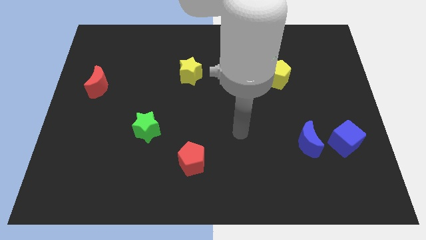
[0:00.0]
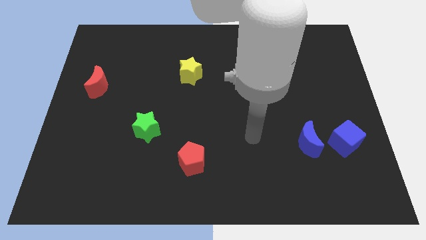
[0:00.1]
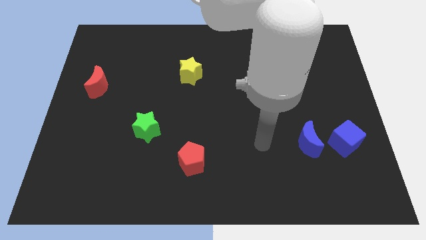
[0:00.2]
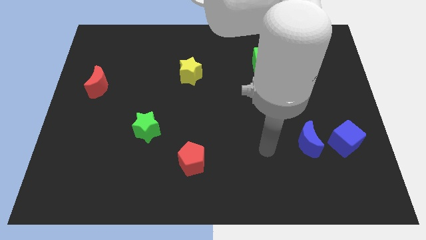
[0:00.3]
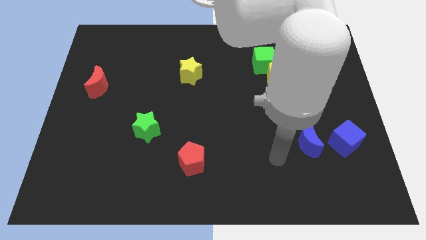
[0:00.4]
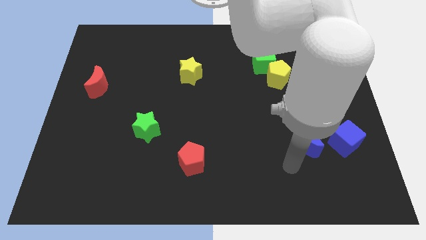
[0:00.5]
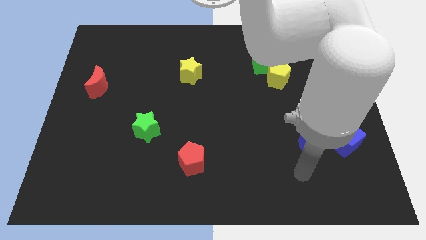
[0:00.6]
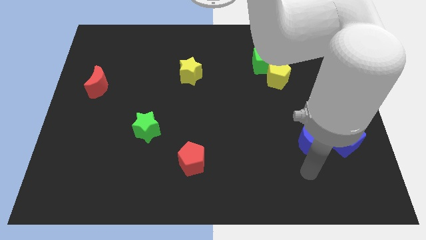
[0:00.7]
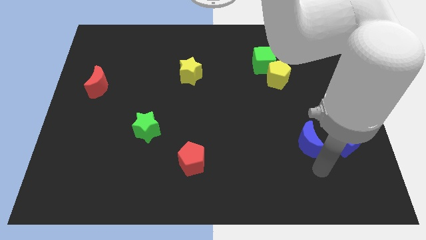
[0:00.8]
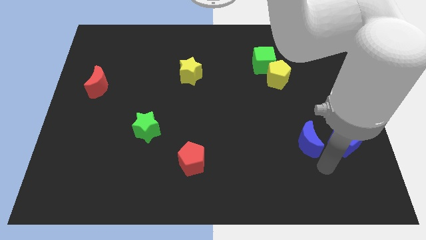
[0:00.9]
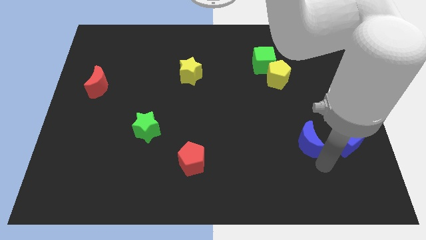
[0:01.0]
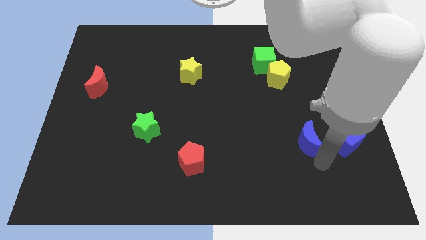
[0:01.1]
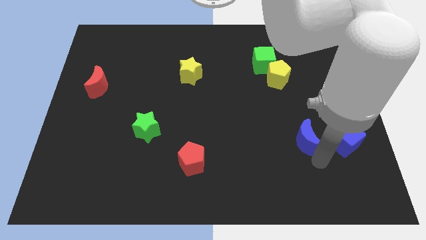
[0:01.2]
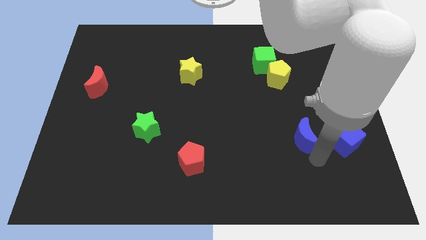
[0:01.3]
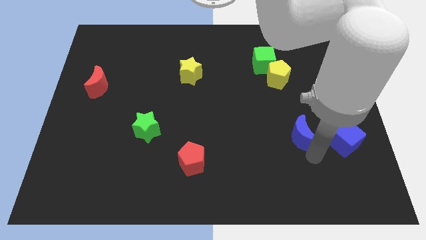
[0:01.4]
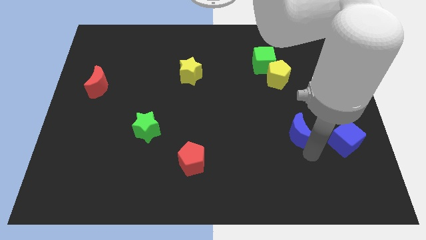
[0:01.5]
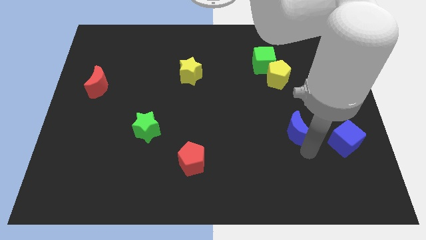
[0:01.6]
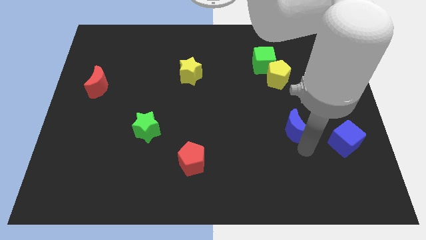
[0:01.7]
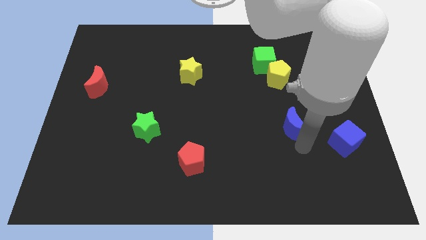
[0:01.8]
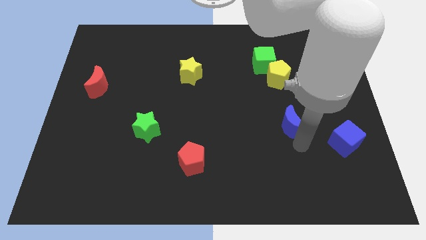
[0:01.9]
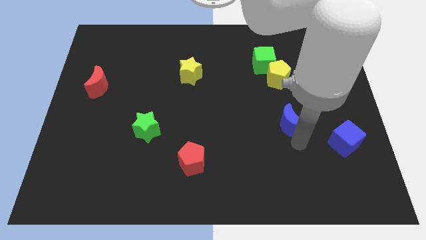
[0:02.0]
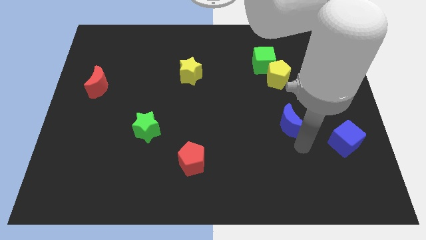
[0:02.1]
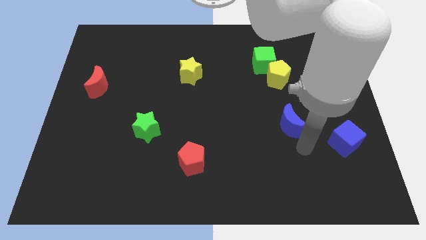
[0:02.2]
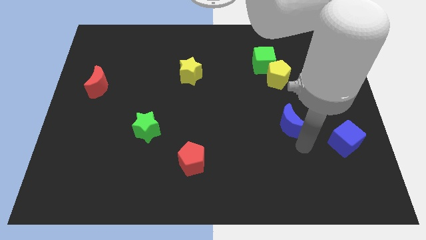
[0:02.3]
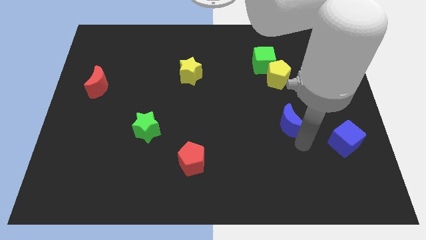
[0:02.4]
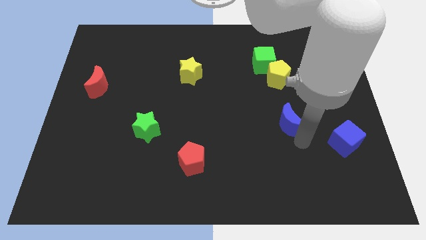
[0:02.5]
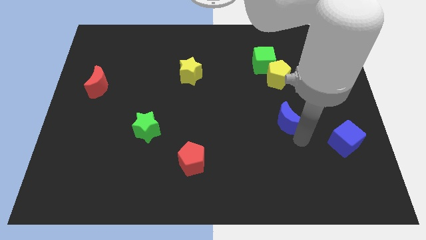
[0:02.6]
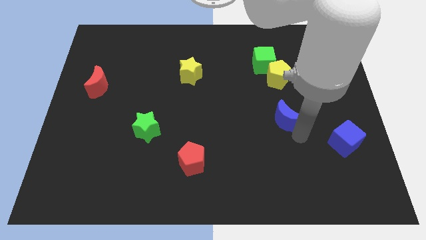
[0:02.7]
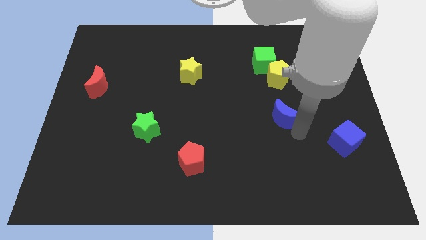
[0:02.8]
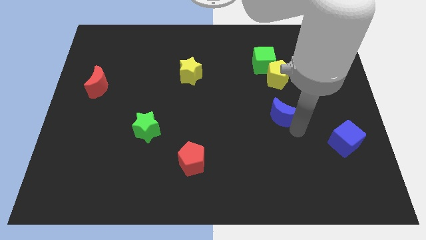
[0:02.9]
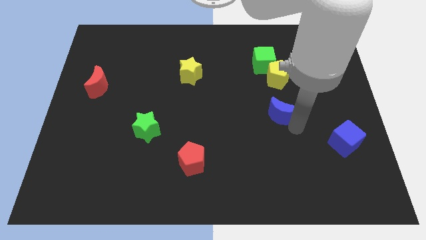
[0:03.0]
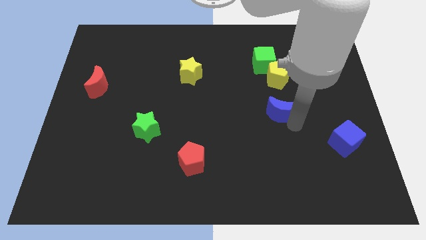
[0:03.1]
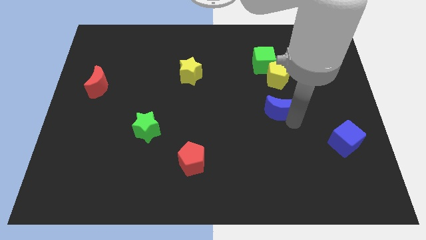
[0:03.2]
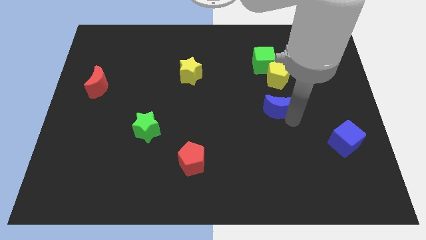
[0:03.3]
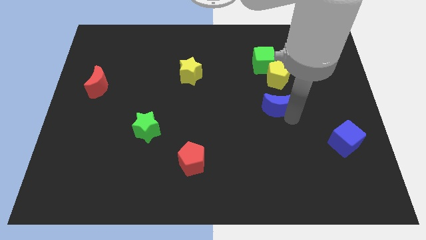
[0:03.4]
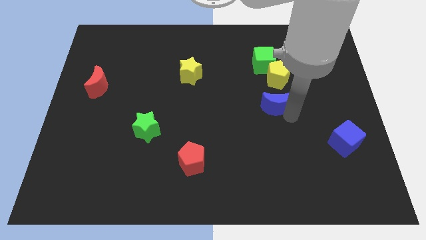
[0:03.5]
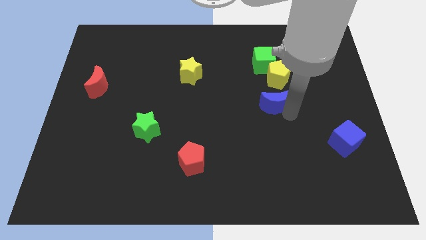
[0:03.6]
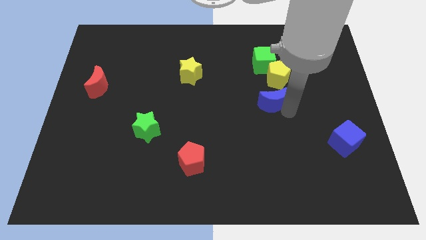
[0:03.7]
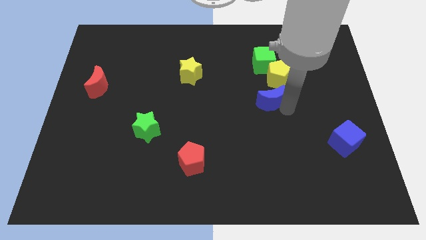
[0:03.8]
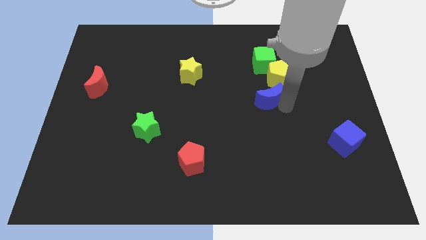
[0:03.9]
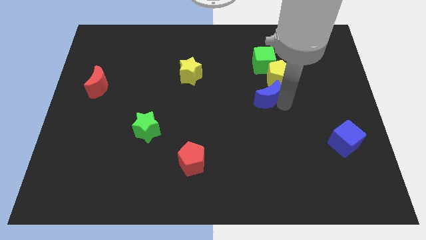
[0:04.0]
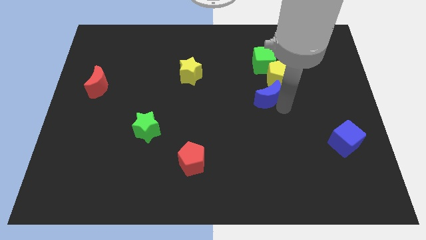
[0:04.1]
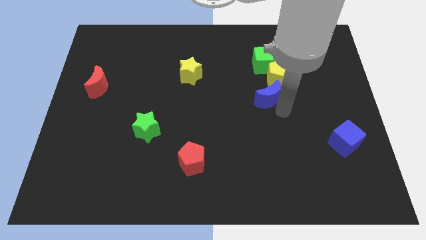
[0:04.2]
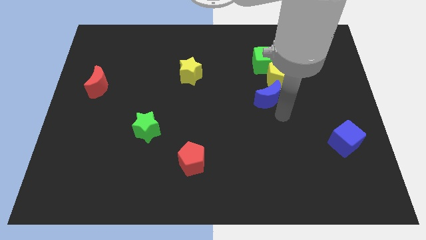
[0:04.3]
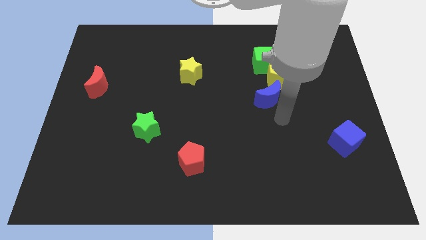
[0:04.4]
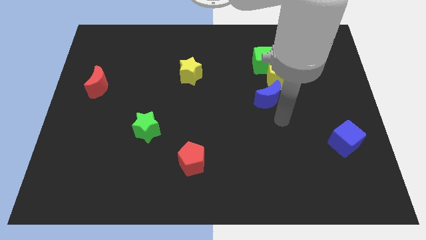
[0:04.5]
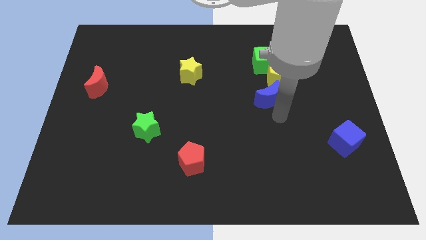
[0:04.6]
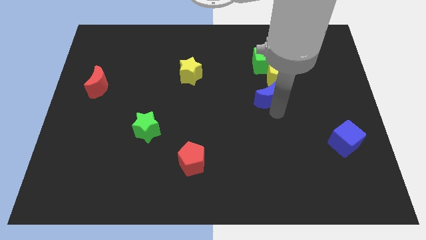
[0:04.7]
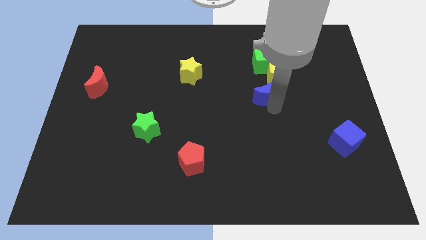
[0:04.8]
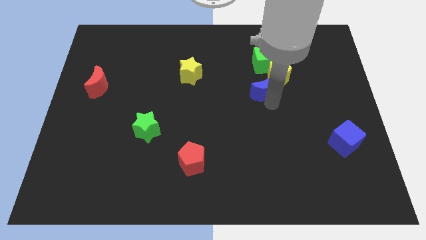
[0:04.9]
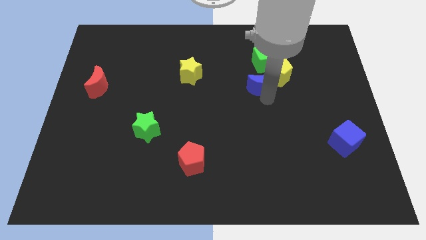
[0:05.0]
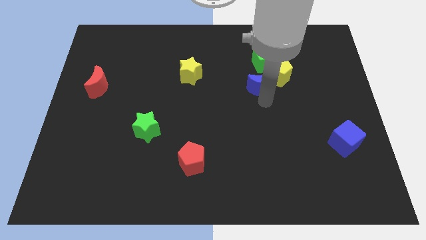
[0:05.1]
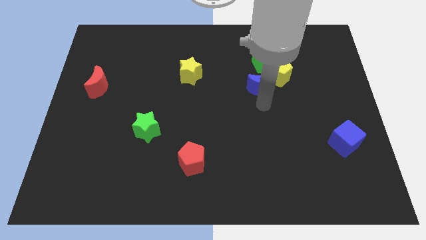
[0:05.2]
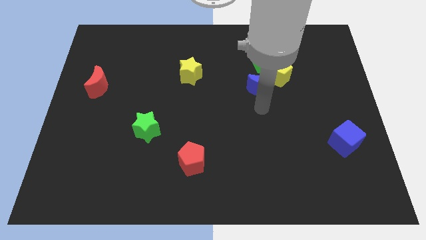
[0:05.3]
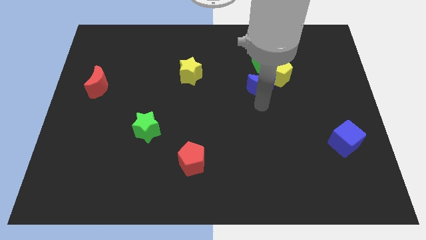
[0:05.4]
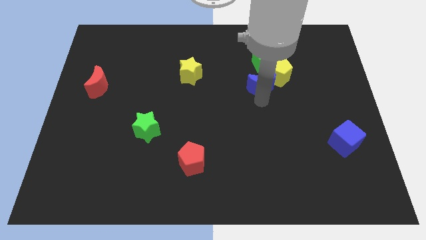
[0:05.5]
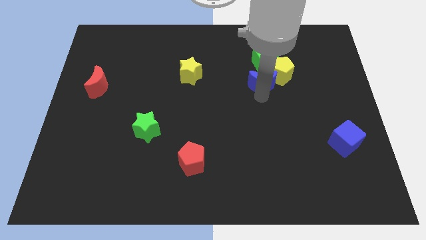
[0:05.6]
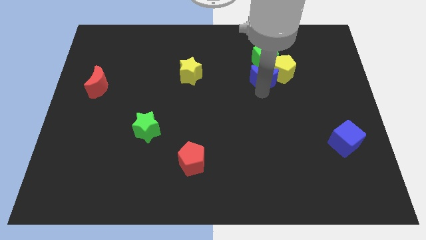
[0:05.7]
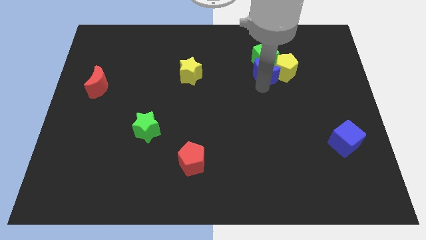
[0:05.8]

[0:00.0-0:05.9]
push the blue moon towards the green cube

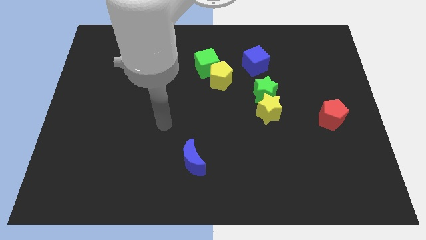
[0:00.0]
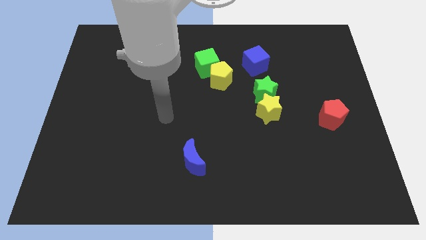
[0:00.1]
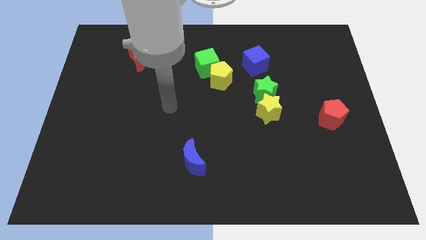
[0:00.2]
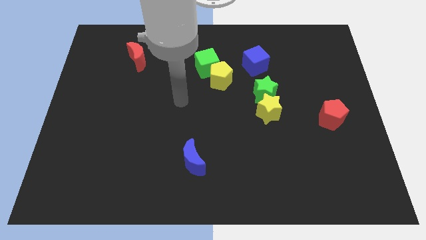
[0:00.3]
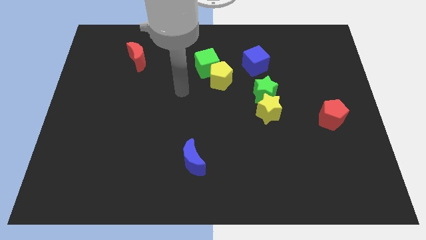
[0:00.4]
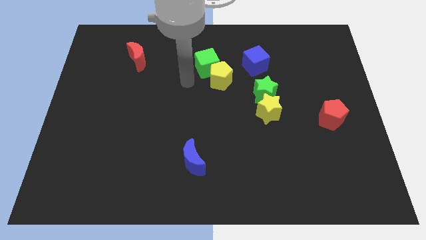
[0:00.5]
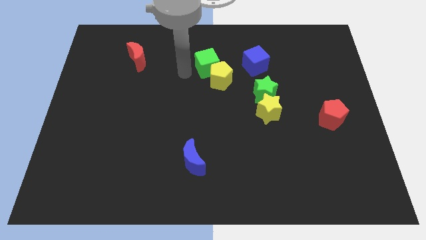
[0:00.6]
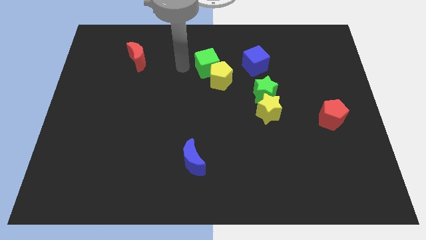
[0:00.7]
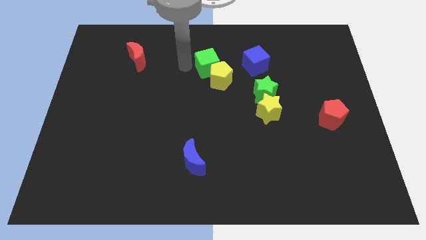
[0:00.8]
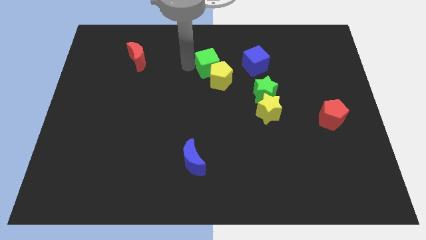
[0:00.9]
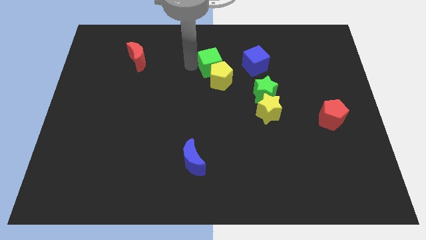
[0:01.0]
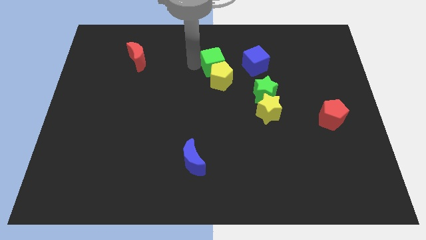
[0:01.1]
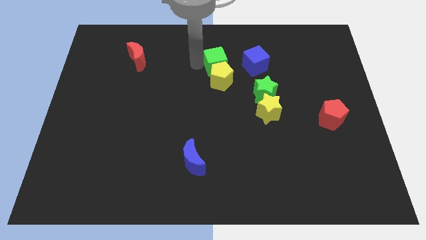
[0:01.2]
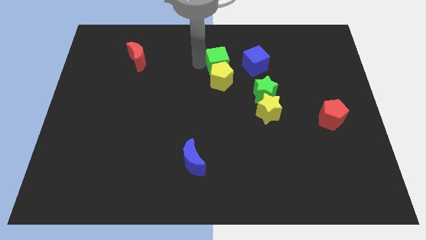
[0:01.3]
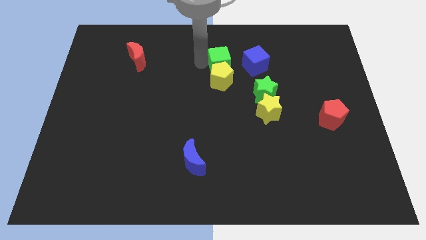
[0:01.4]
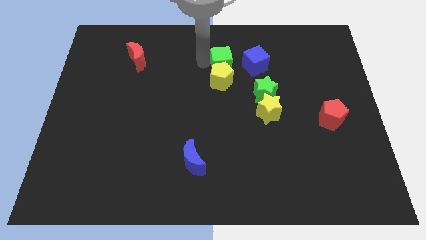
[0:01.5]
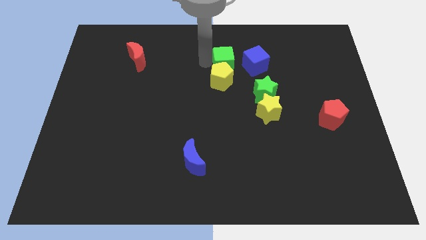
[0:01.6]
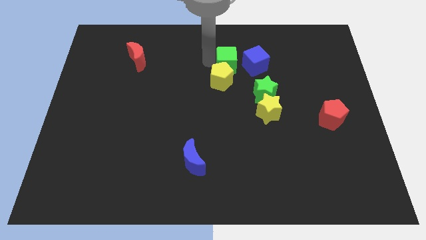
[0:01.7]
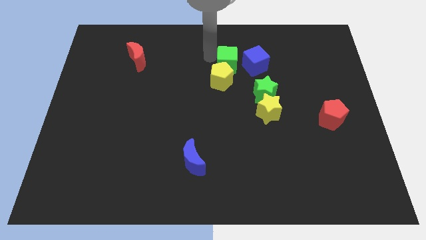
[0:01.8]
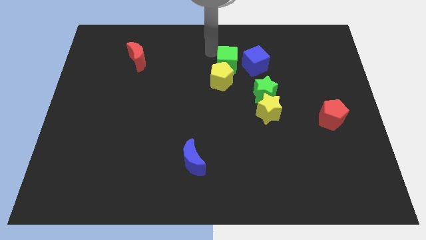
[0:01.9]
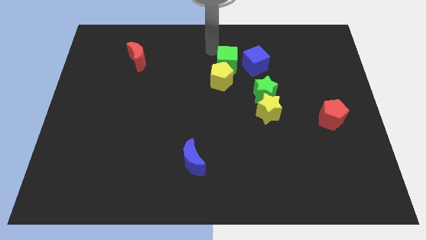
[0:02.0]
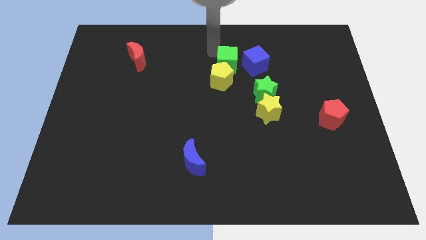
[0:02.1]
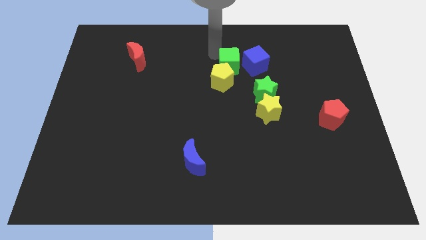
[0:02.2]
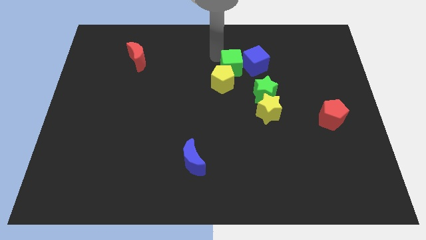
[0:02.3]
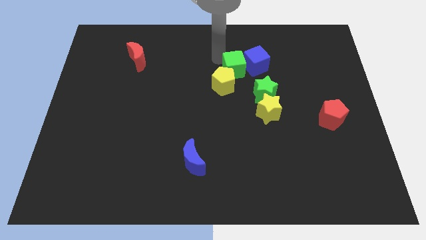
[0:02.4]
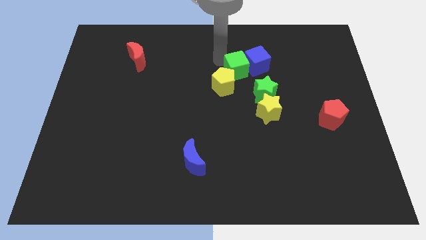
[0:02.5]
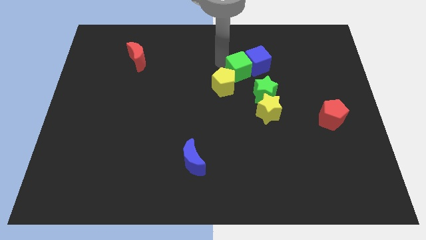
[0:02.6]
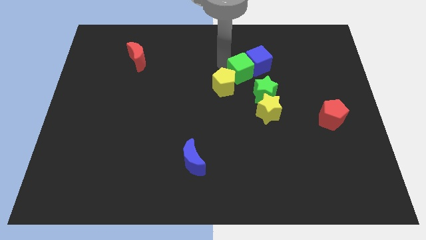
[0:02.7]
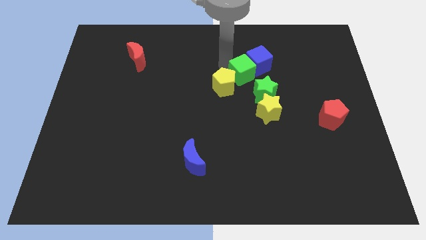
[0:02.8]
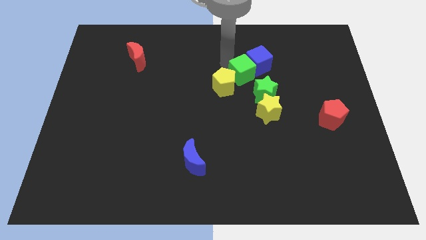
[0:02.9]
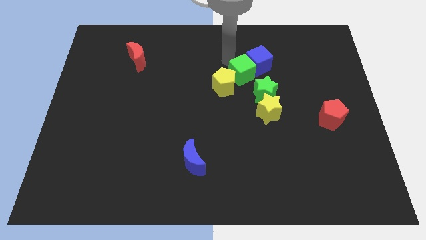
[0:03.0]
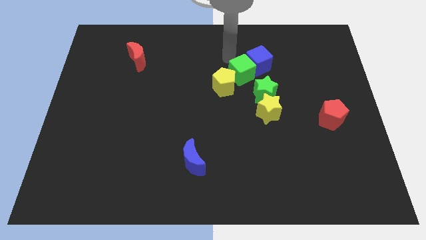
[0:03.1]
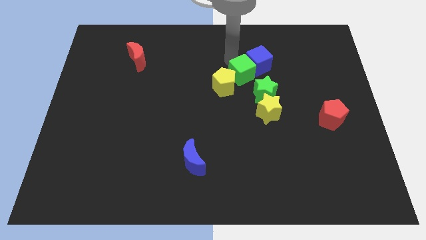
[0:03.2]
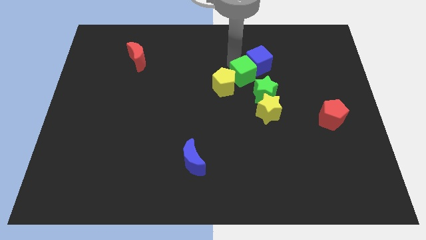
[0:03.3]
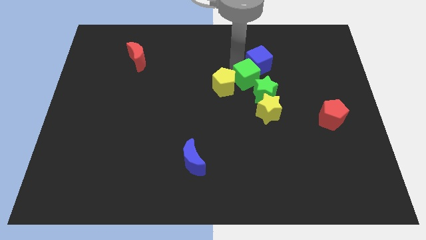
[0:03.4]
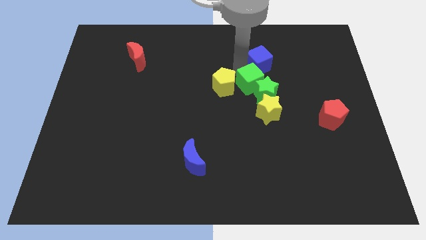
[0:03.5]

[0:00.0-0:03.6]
push the green cube towards the green star
